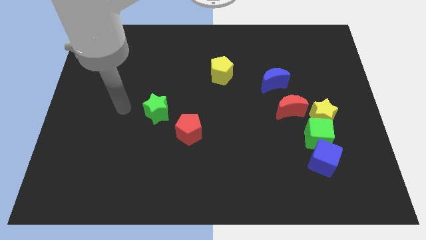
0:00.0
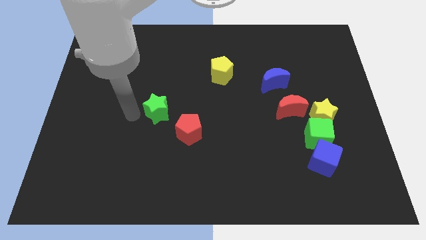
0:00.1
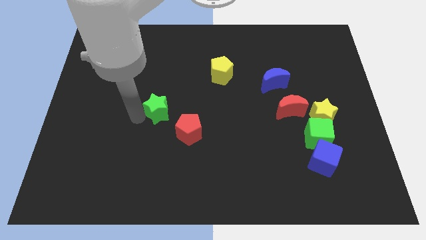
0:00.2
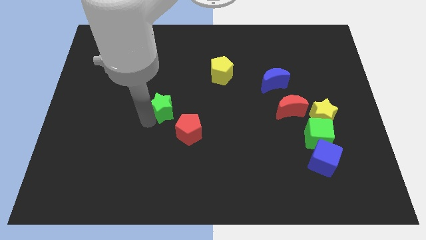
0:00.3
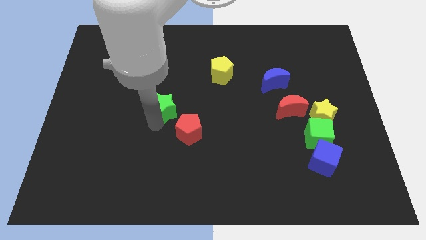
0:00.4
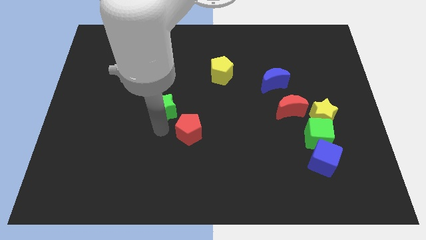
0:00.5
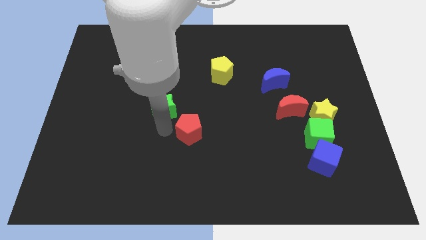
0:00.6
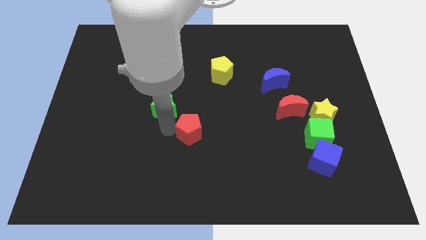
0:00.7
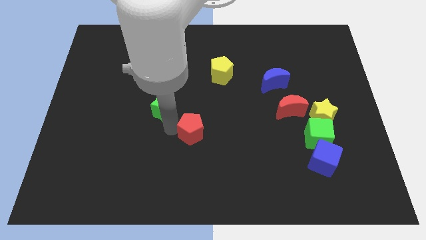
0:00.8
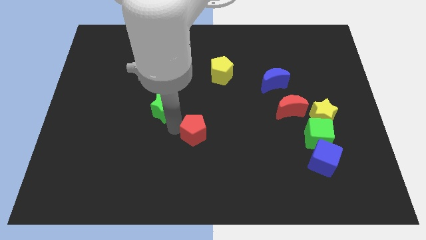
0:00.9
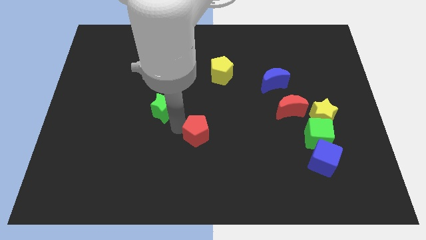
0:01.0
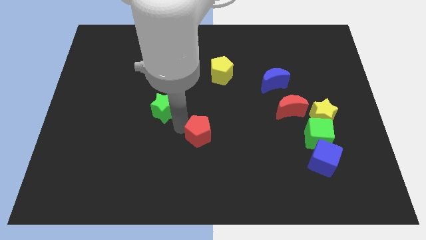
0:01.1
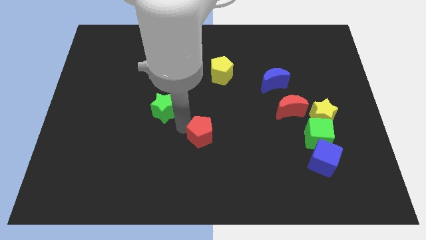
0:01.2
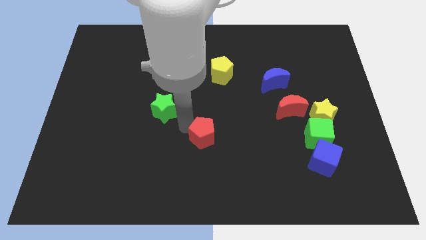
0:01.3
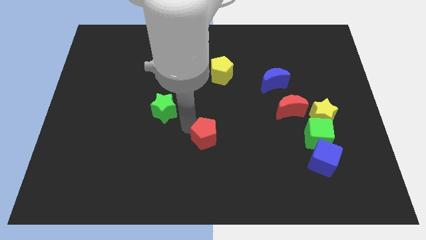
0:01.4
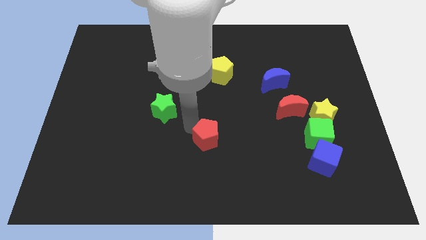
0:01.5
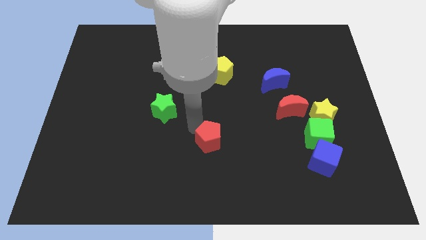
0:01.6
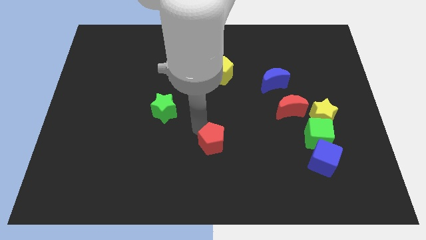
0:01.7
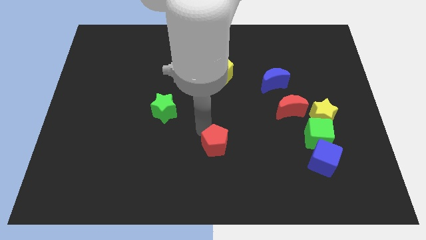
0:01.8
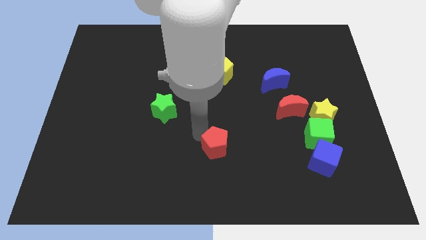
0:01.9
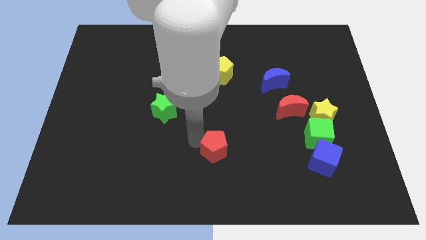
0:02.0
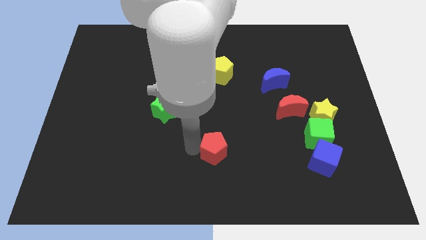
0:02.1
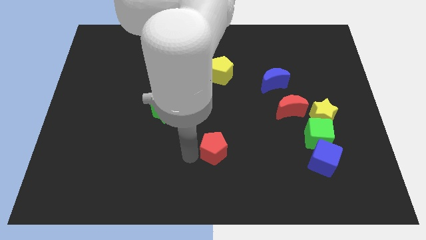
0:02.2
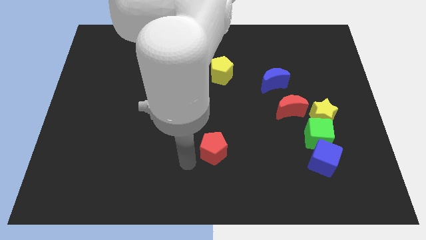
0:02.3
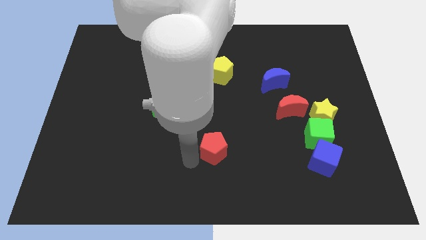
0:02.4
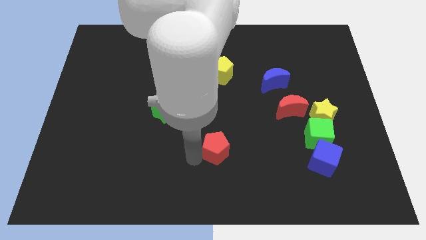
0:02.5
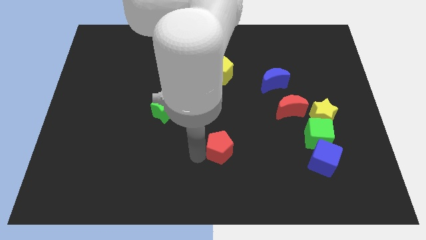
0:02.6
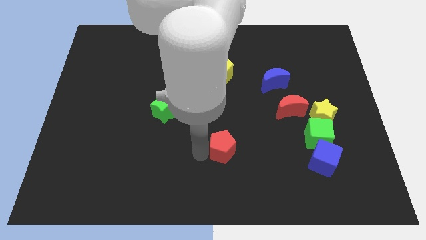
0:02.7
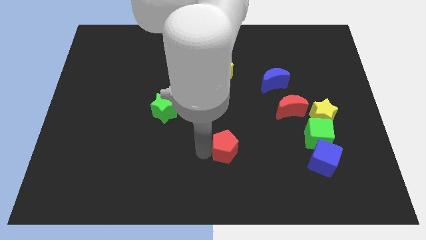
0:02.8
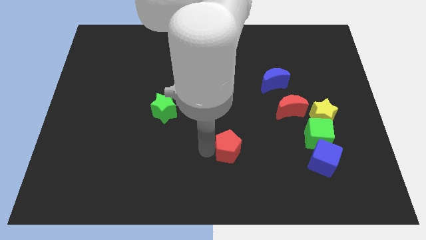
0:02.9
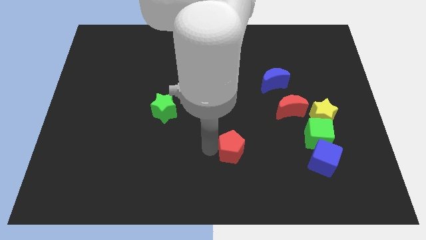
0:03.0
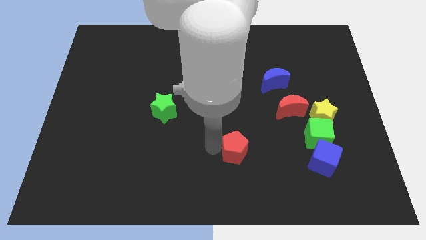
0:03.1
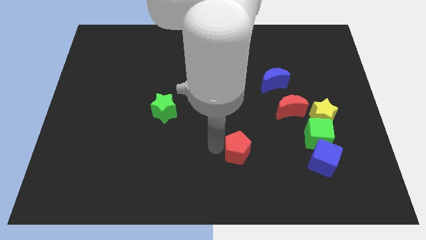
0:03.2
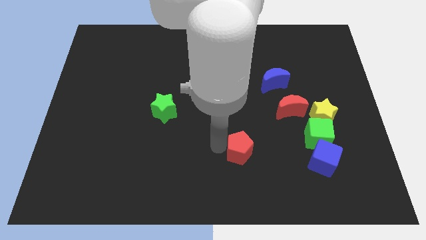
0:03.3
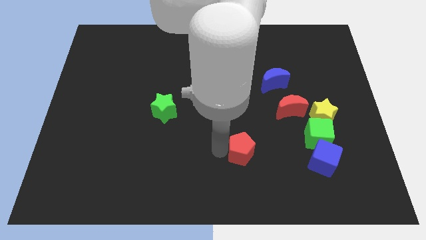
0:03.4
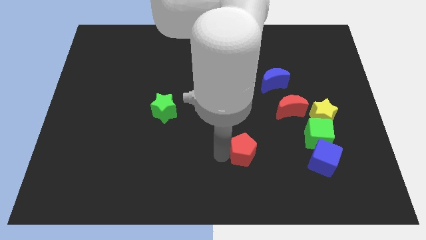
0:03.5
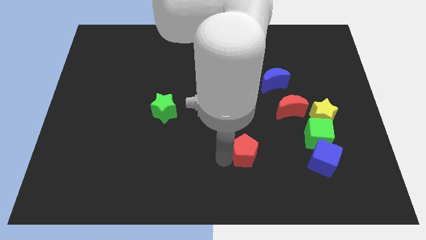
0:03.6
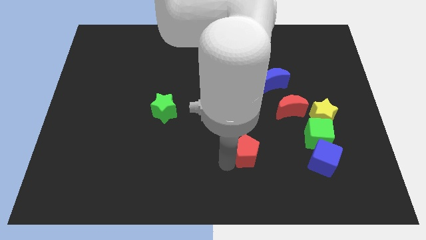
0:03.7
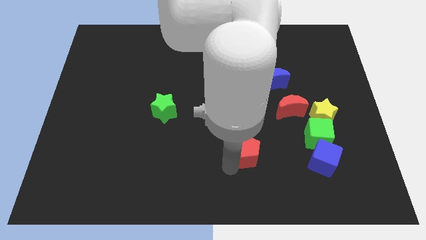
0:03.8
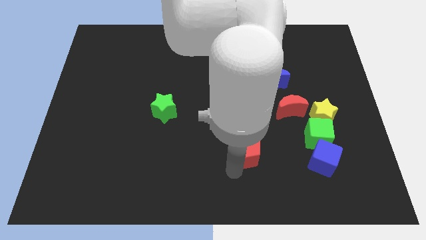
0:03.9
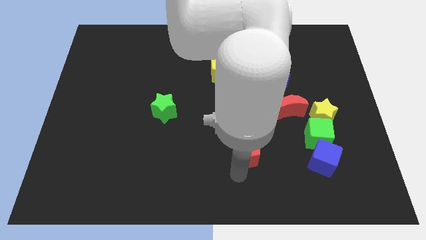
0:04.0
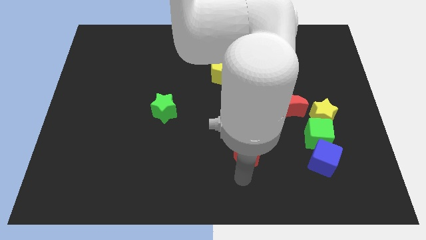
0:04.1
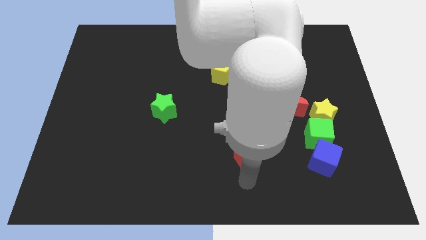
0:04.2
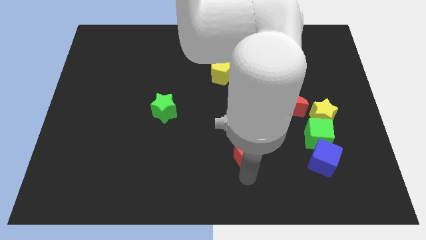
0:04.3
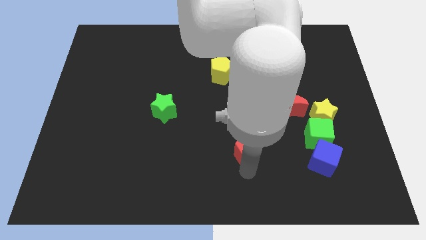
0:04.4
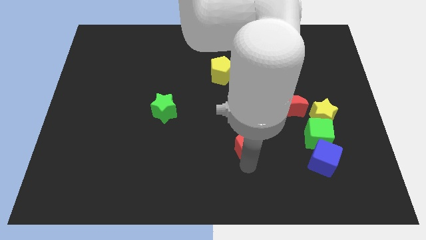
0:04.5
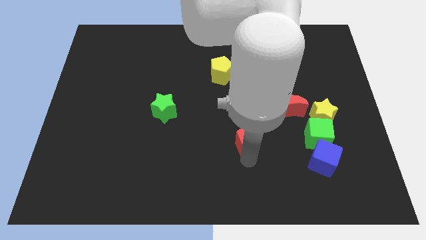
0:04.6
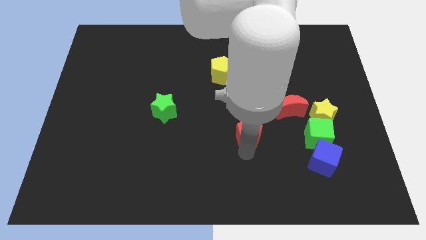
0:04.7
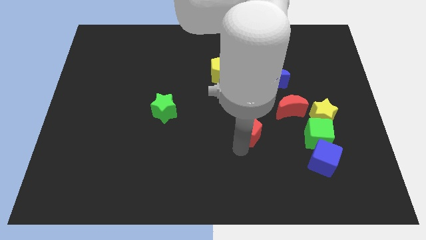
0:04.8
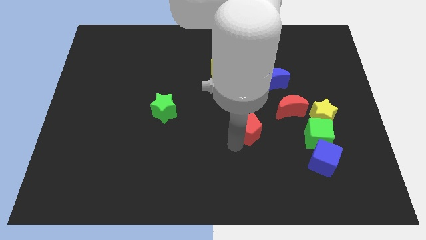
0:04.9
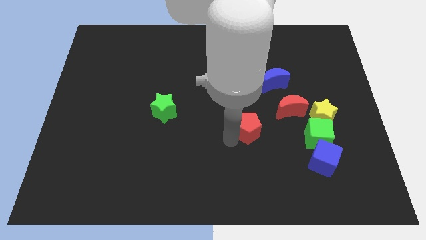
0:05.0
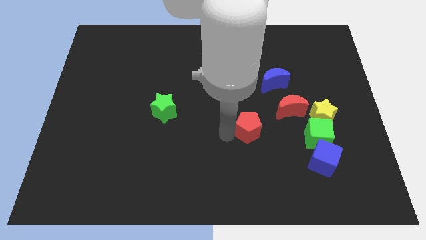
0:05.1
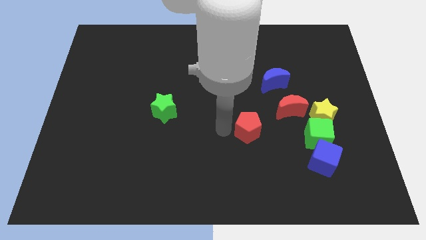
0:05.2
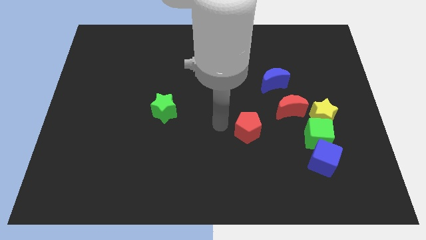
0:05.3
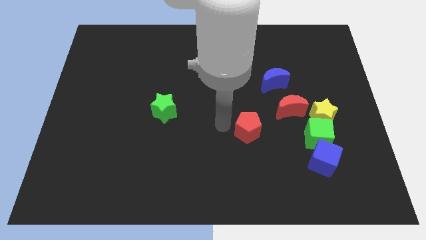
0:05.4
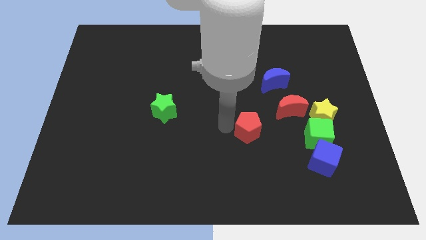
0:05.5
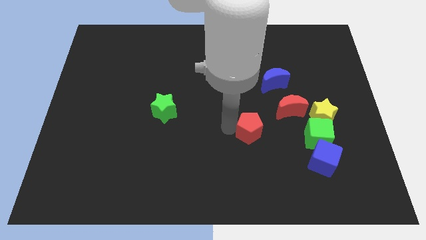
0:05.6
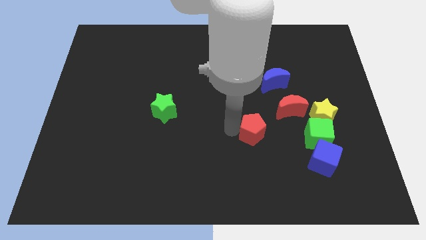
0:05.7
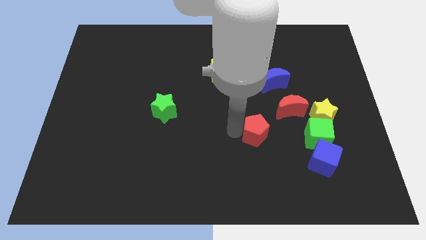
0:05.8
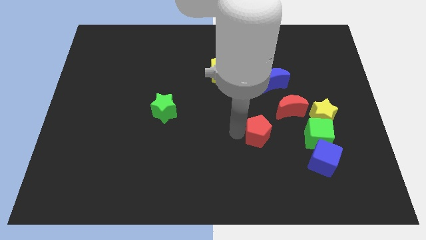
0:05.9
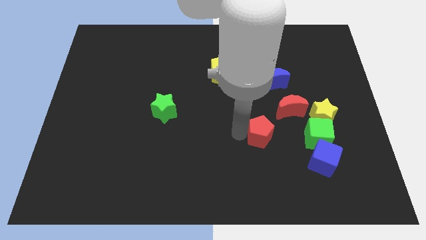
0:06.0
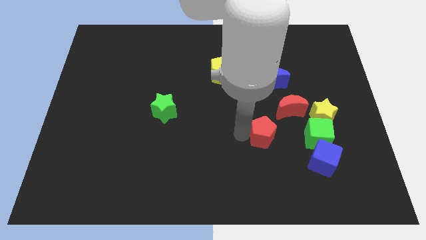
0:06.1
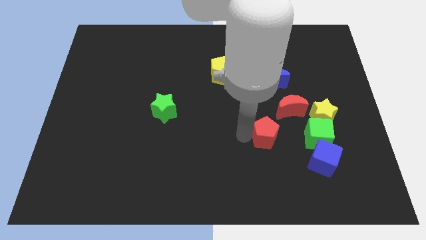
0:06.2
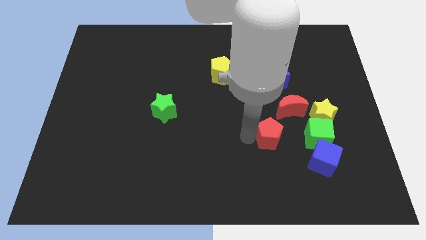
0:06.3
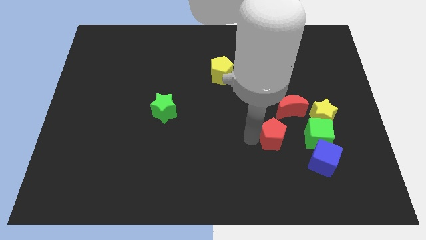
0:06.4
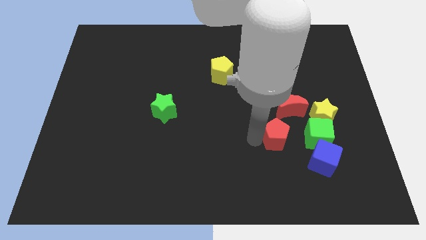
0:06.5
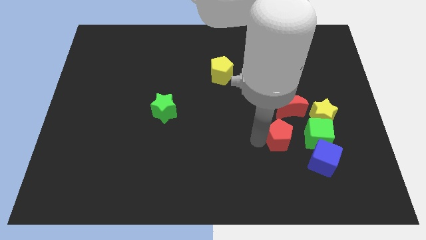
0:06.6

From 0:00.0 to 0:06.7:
move the red pentagon to the bottom left side of the yellow star
